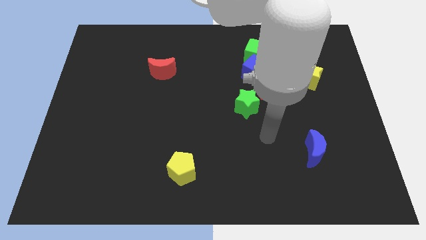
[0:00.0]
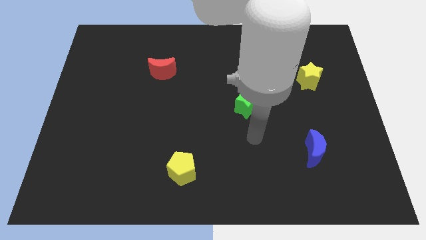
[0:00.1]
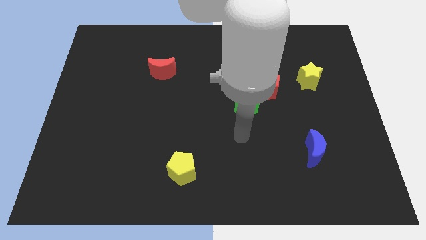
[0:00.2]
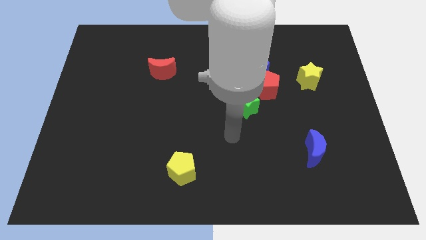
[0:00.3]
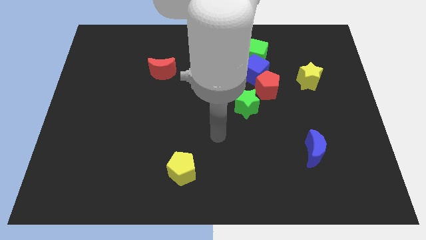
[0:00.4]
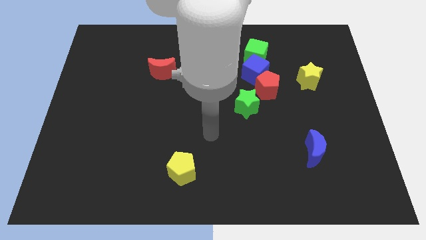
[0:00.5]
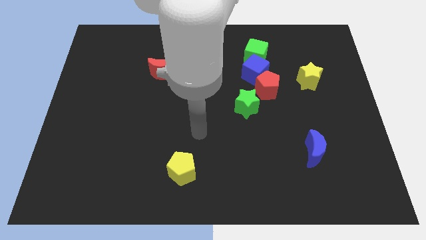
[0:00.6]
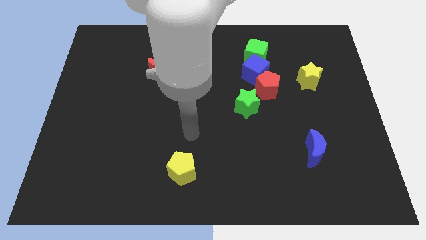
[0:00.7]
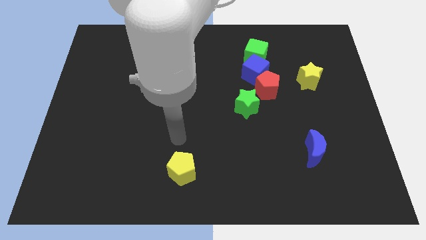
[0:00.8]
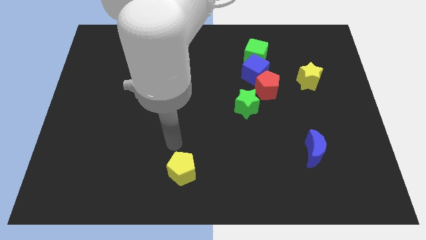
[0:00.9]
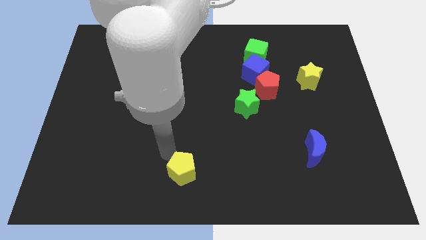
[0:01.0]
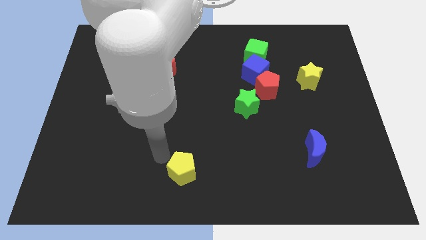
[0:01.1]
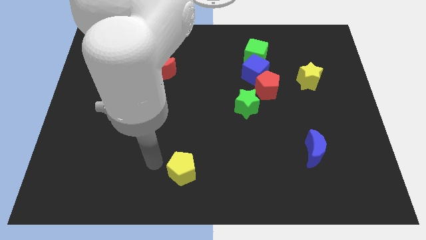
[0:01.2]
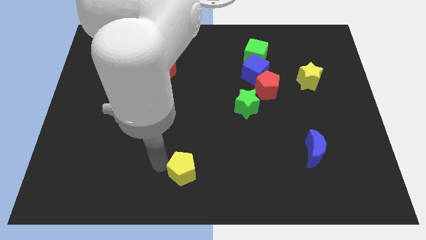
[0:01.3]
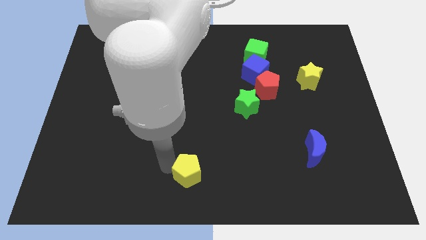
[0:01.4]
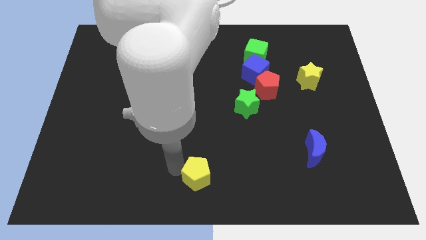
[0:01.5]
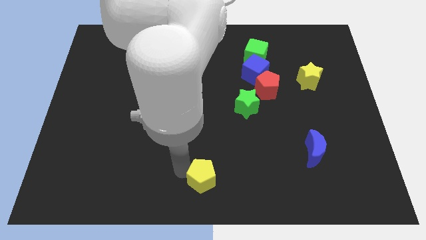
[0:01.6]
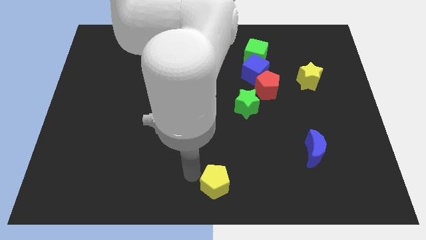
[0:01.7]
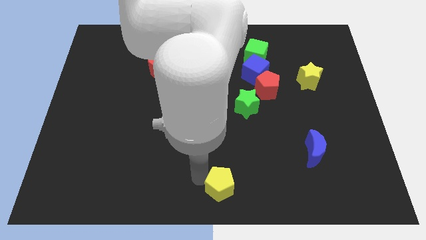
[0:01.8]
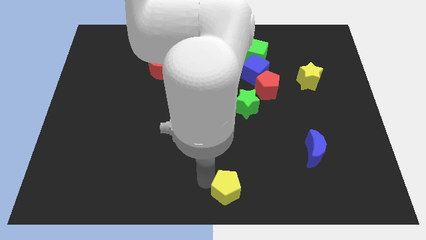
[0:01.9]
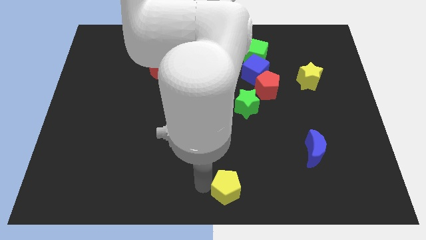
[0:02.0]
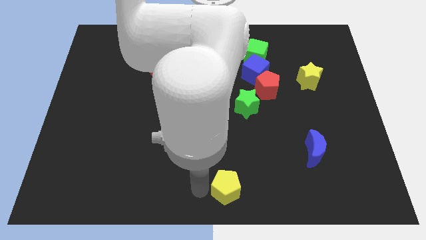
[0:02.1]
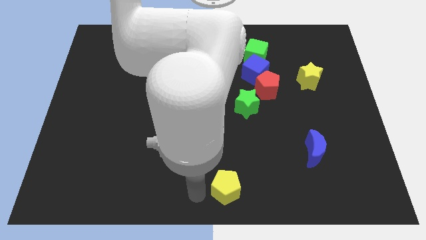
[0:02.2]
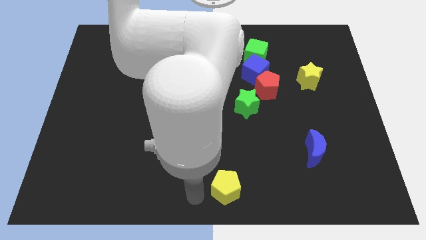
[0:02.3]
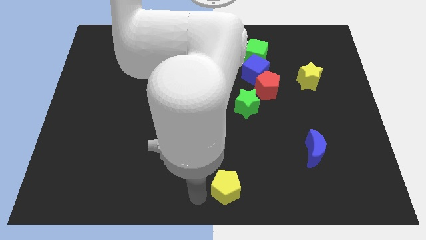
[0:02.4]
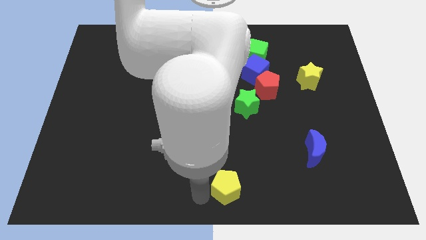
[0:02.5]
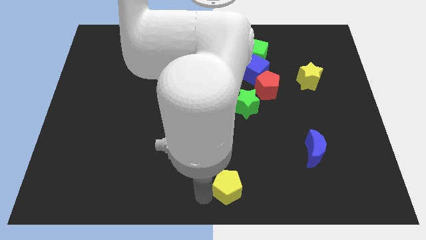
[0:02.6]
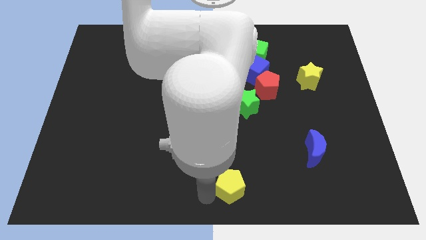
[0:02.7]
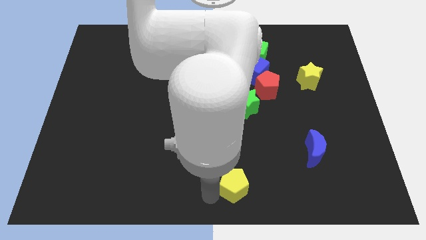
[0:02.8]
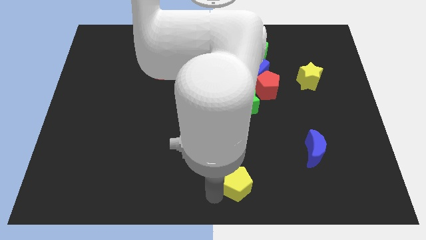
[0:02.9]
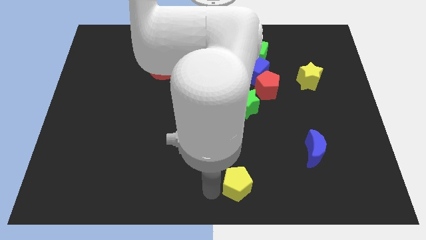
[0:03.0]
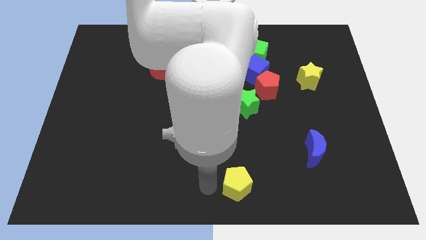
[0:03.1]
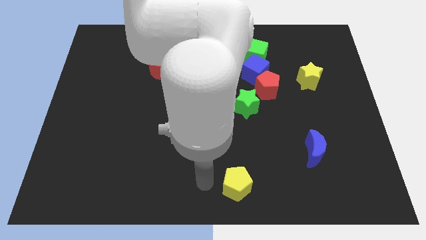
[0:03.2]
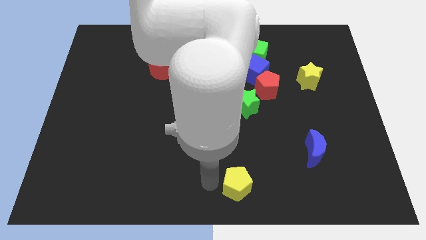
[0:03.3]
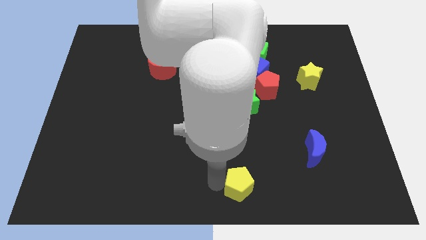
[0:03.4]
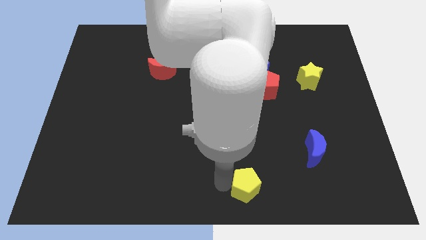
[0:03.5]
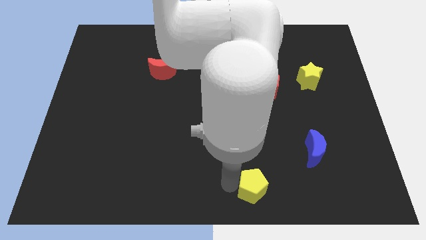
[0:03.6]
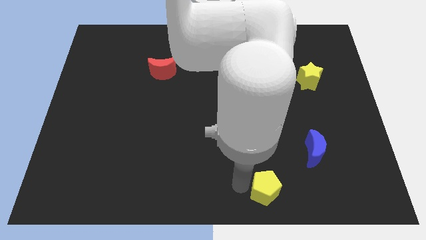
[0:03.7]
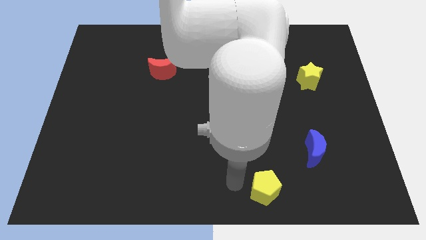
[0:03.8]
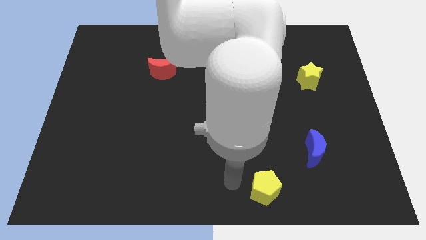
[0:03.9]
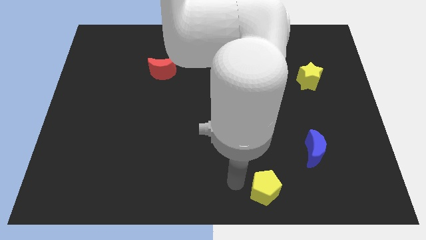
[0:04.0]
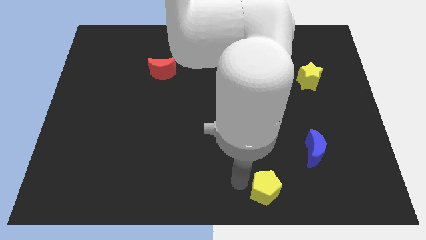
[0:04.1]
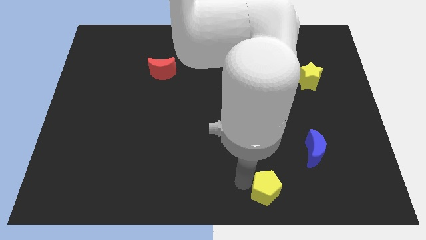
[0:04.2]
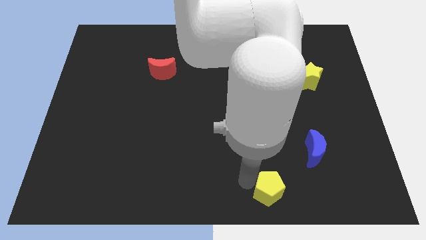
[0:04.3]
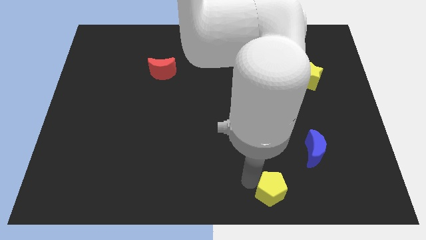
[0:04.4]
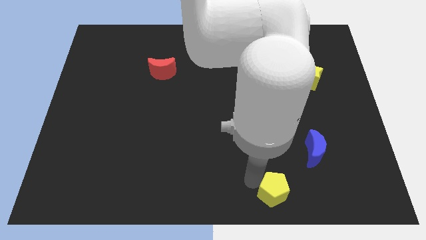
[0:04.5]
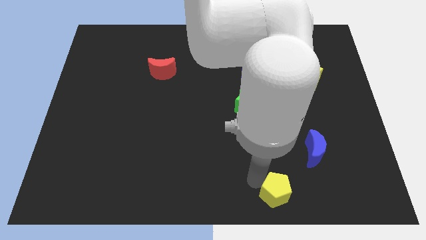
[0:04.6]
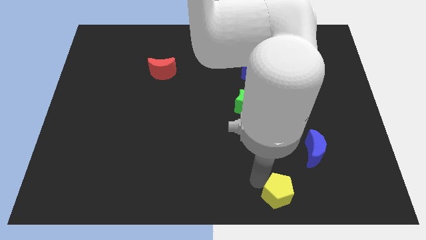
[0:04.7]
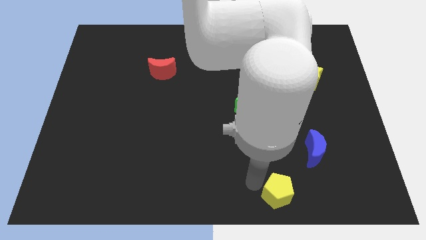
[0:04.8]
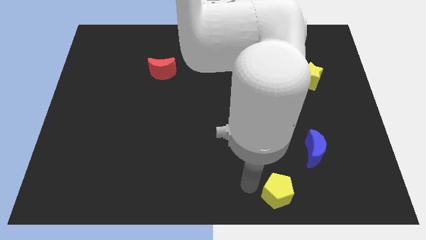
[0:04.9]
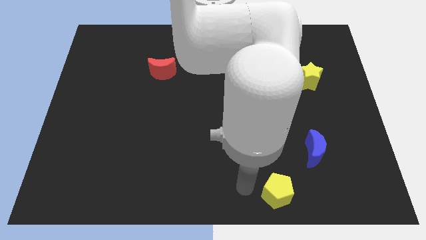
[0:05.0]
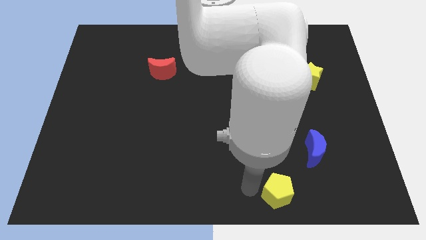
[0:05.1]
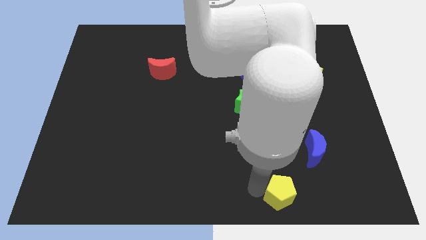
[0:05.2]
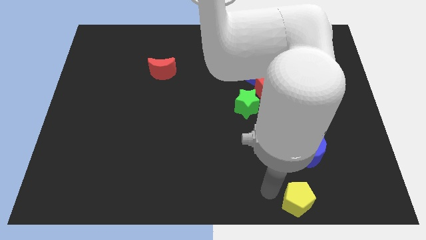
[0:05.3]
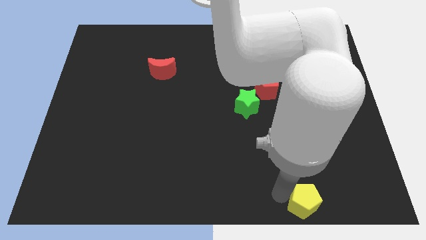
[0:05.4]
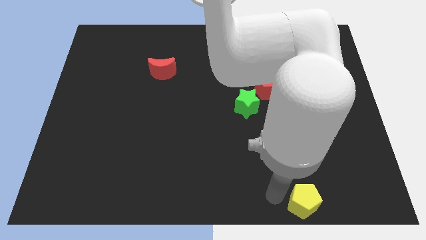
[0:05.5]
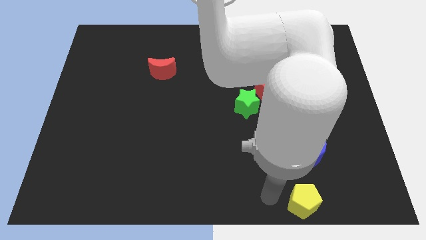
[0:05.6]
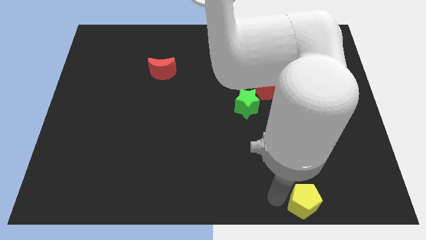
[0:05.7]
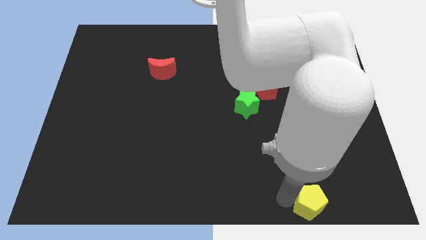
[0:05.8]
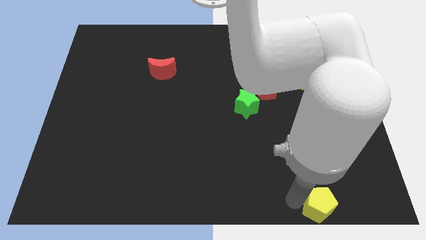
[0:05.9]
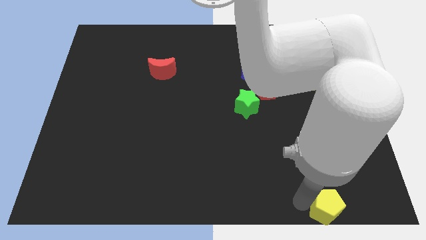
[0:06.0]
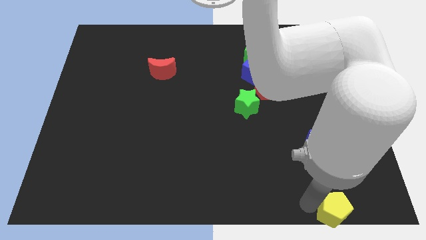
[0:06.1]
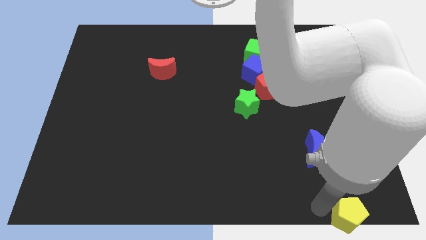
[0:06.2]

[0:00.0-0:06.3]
slide the yellow pentagon to the bottom right
